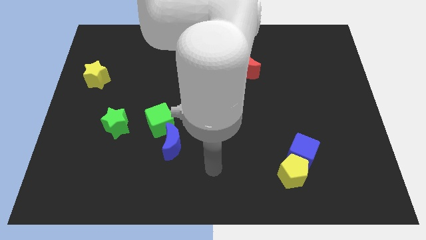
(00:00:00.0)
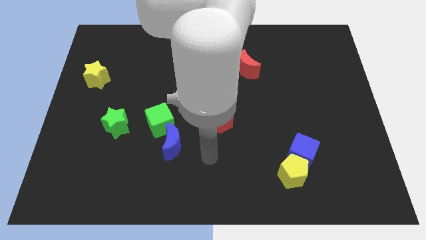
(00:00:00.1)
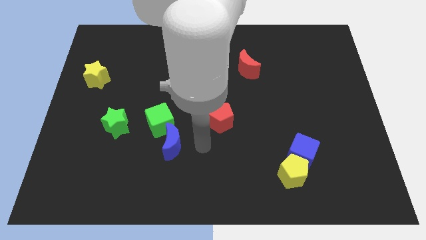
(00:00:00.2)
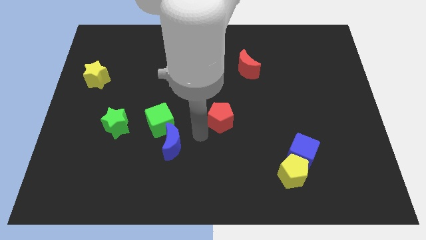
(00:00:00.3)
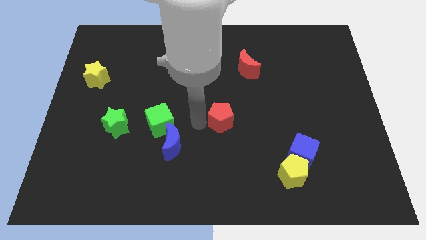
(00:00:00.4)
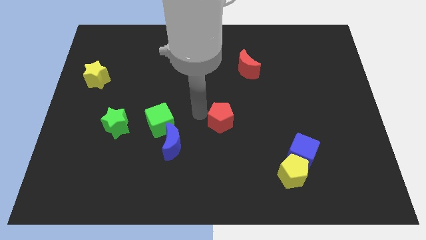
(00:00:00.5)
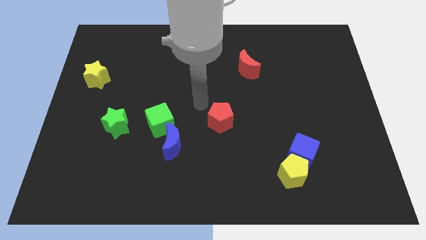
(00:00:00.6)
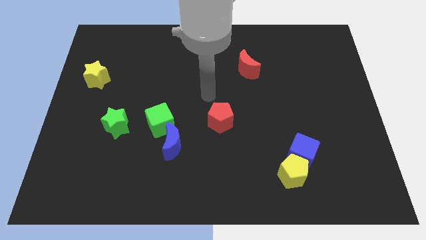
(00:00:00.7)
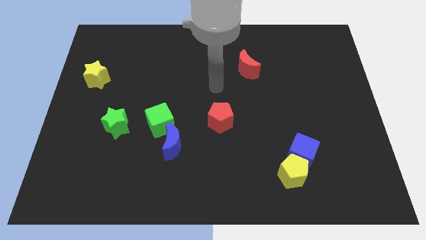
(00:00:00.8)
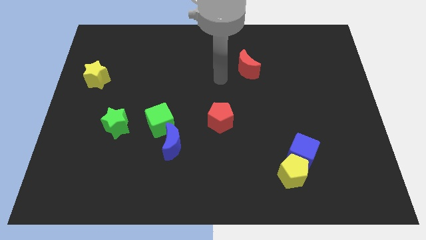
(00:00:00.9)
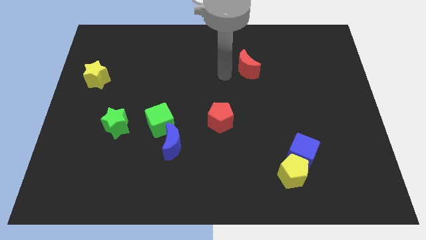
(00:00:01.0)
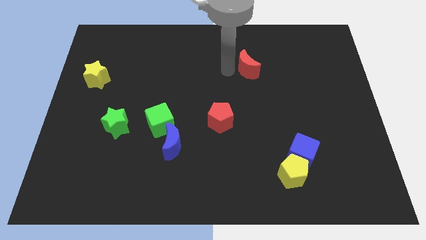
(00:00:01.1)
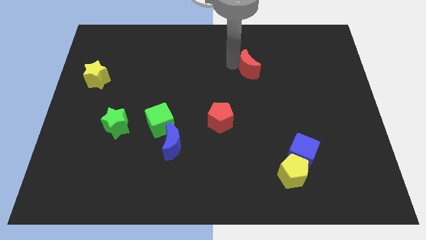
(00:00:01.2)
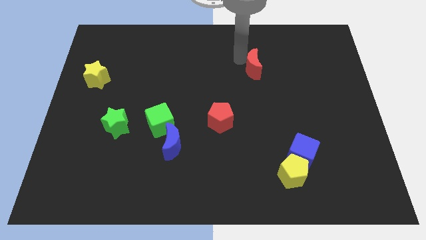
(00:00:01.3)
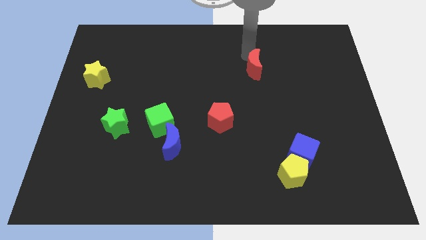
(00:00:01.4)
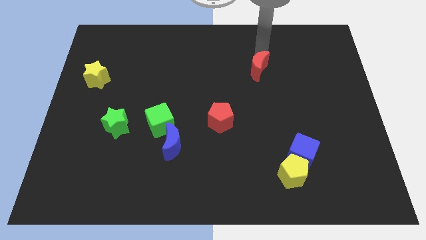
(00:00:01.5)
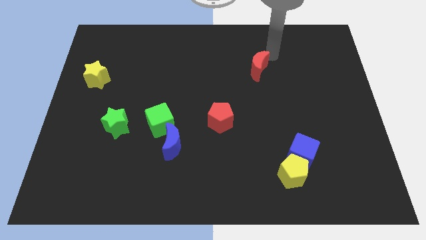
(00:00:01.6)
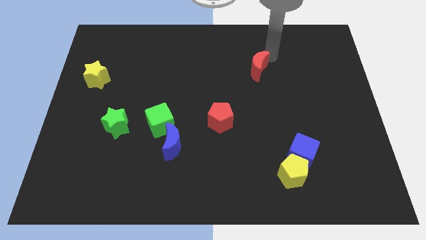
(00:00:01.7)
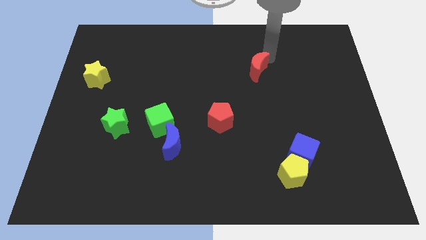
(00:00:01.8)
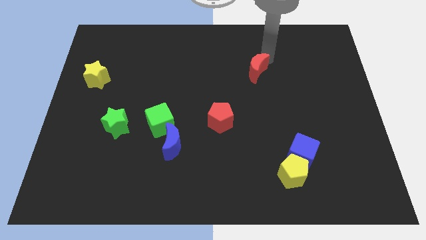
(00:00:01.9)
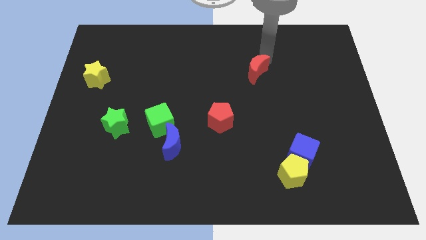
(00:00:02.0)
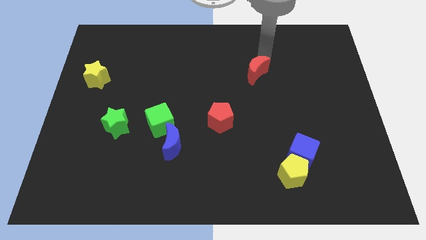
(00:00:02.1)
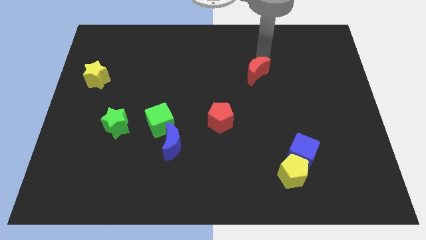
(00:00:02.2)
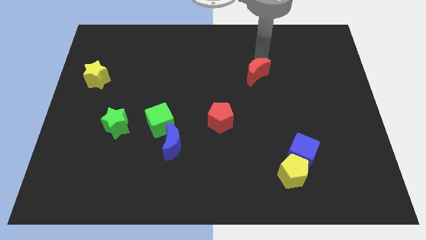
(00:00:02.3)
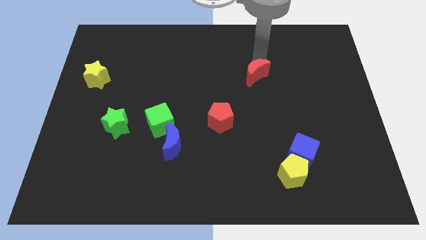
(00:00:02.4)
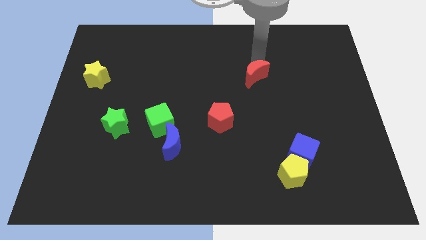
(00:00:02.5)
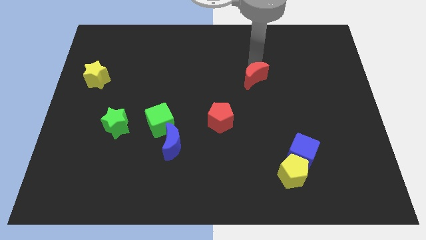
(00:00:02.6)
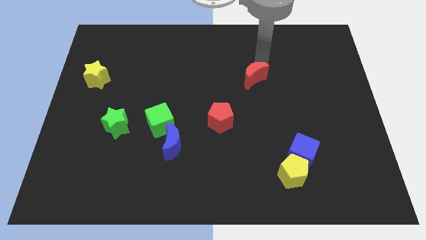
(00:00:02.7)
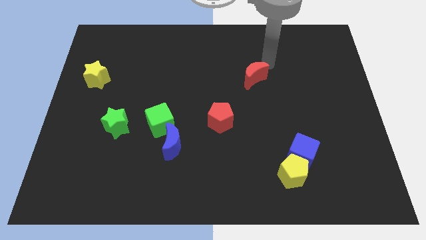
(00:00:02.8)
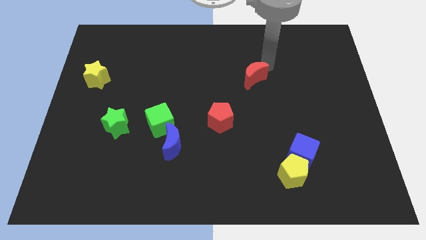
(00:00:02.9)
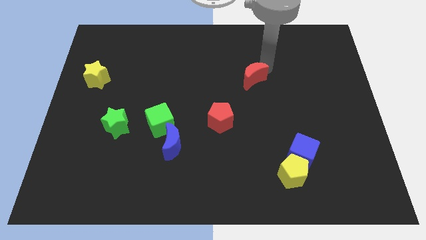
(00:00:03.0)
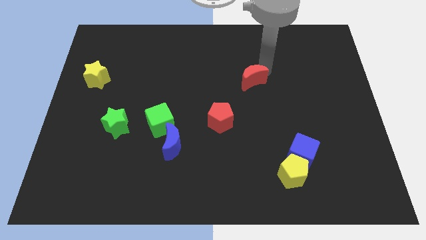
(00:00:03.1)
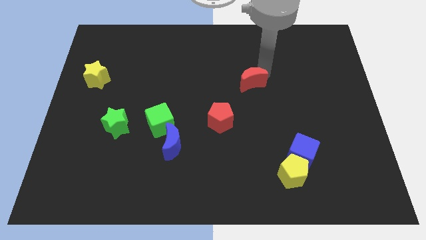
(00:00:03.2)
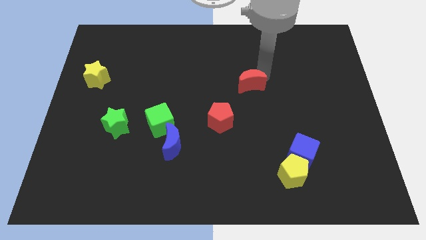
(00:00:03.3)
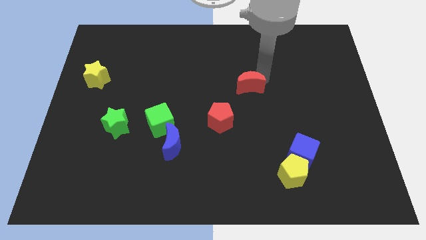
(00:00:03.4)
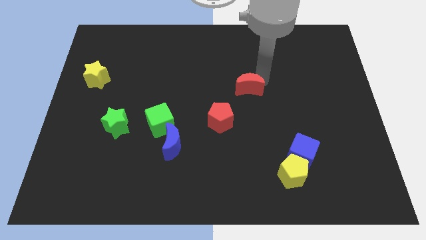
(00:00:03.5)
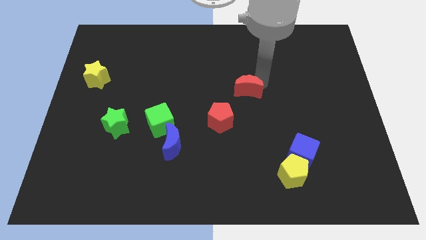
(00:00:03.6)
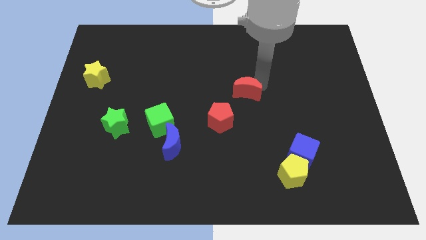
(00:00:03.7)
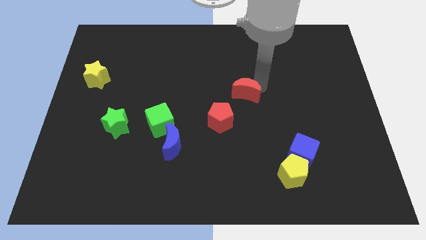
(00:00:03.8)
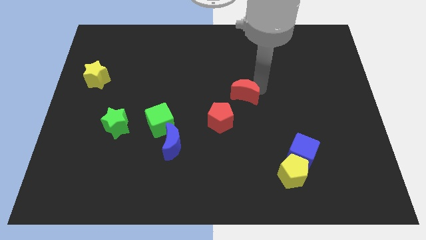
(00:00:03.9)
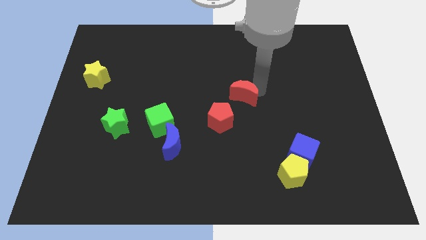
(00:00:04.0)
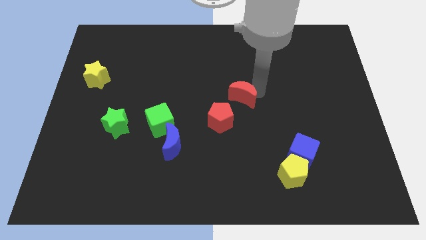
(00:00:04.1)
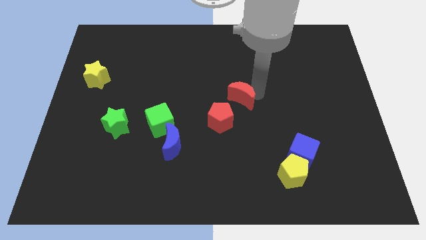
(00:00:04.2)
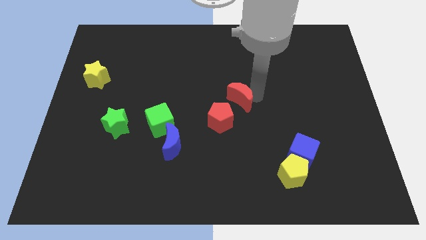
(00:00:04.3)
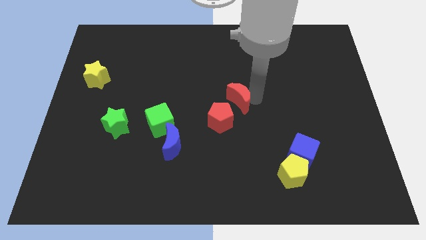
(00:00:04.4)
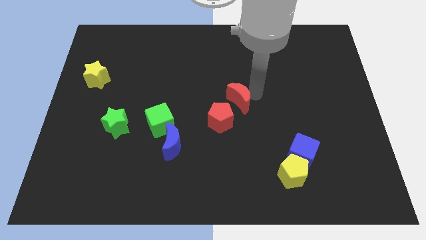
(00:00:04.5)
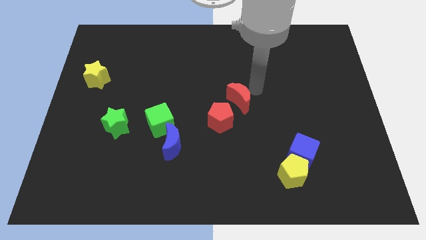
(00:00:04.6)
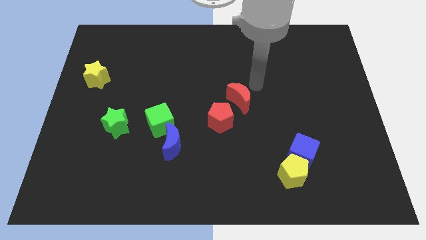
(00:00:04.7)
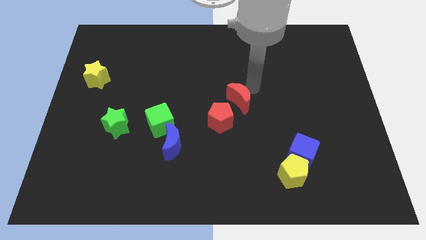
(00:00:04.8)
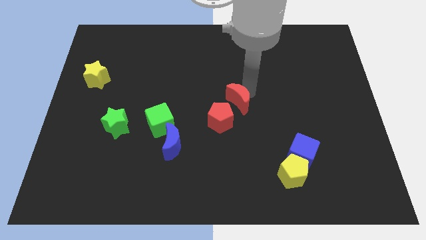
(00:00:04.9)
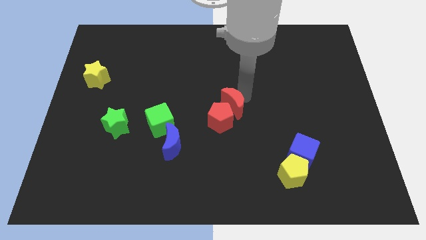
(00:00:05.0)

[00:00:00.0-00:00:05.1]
slide the red moon to the red pentagon

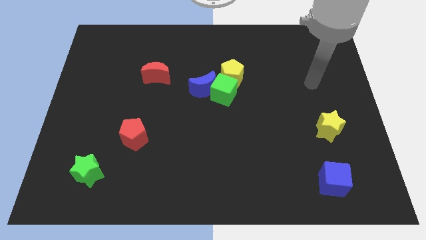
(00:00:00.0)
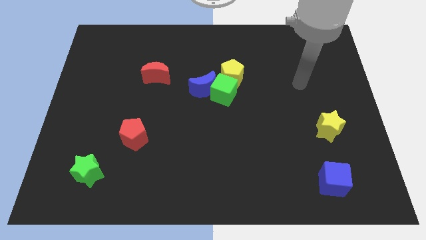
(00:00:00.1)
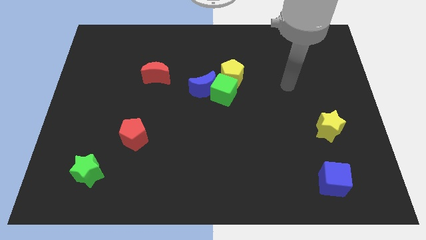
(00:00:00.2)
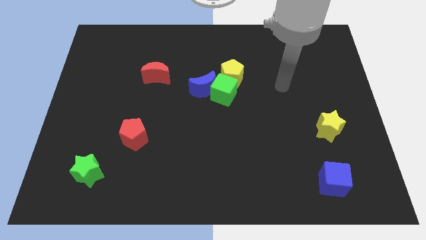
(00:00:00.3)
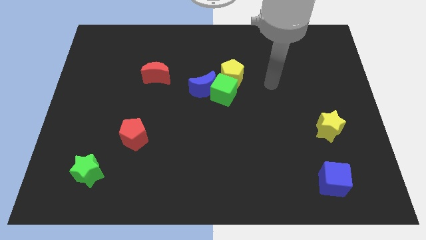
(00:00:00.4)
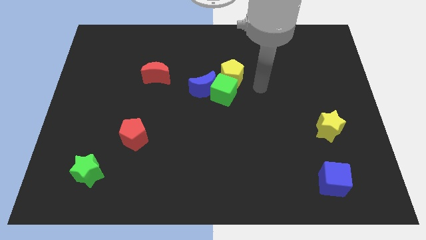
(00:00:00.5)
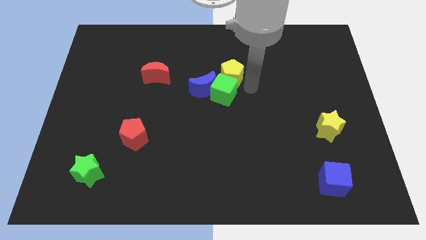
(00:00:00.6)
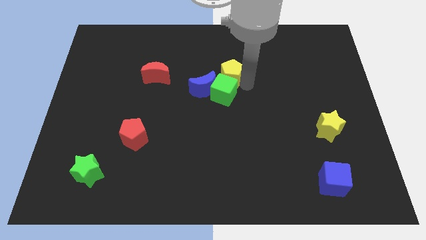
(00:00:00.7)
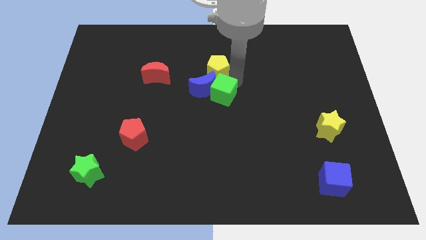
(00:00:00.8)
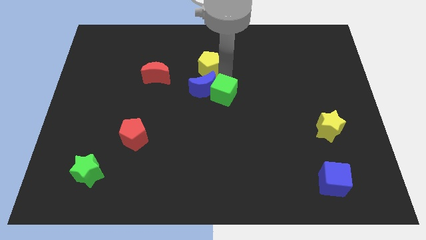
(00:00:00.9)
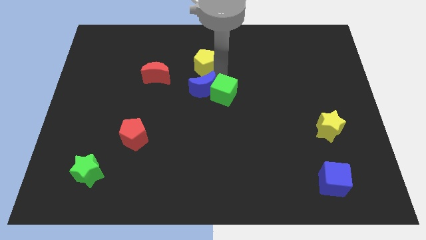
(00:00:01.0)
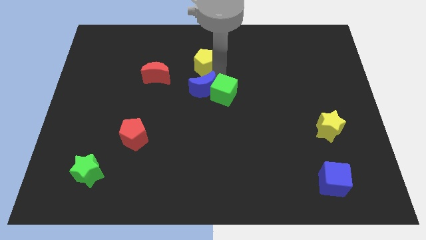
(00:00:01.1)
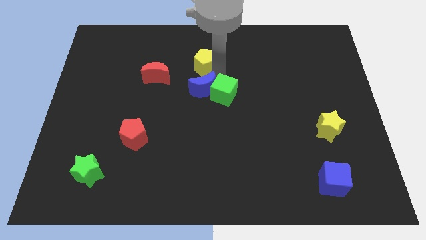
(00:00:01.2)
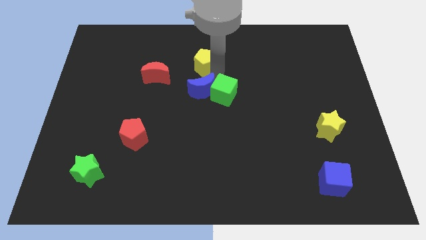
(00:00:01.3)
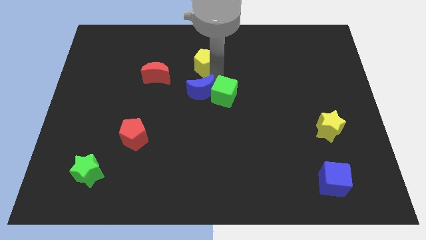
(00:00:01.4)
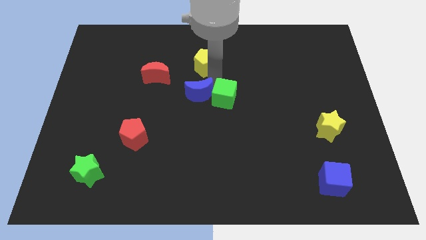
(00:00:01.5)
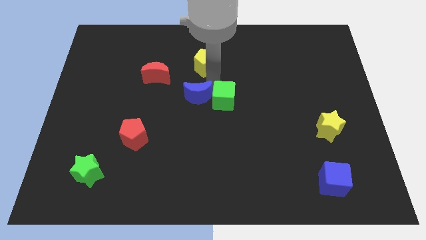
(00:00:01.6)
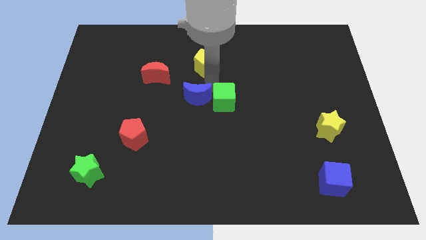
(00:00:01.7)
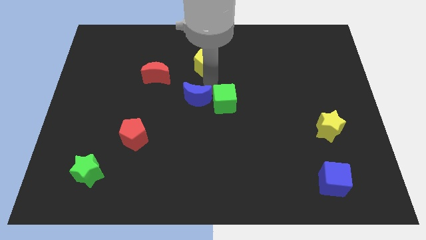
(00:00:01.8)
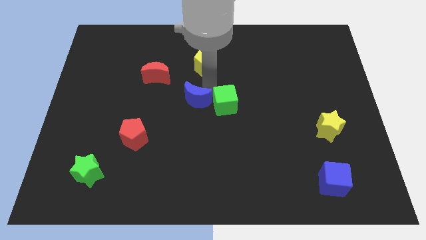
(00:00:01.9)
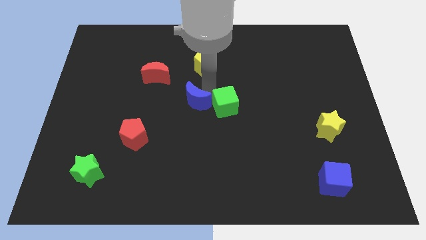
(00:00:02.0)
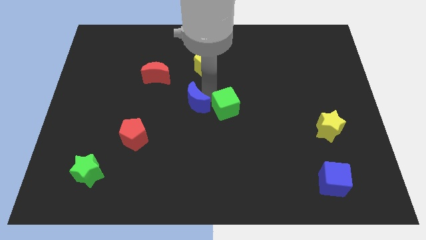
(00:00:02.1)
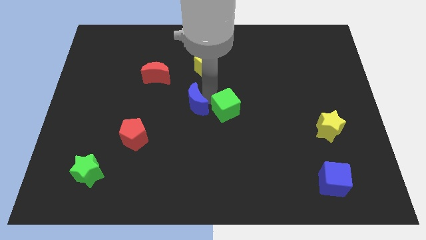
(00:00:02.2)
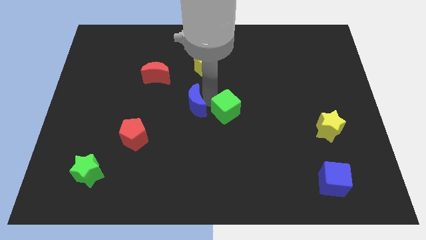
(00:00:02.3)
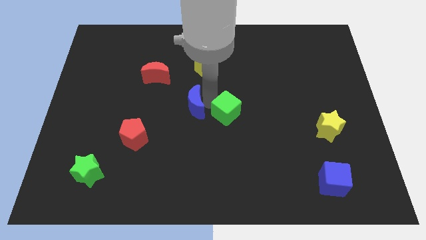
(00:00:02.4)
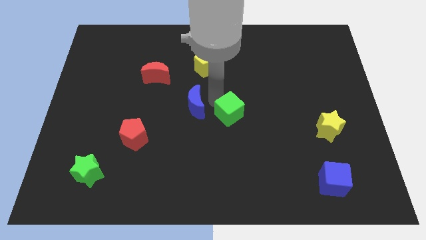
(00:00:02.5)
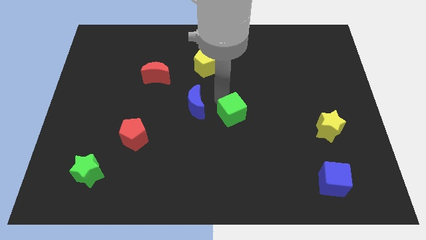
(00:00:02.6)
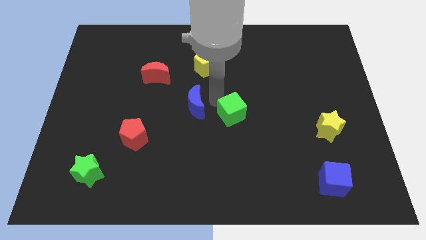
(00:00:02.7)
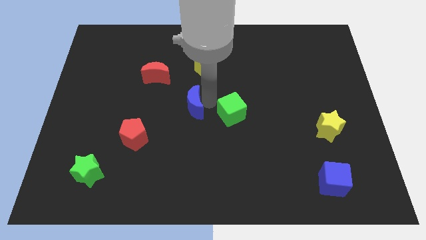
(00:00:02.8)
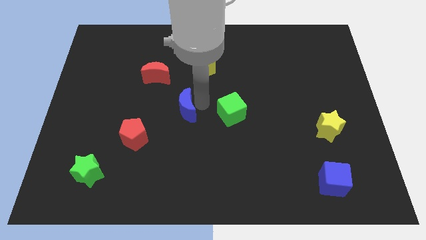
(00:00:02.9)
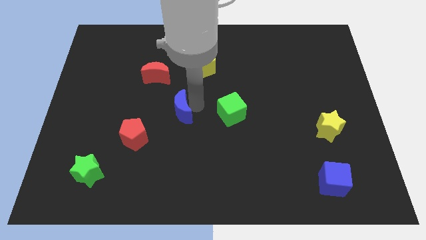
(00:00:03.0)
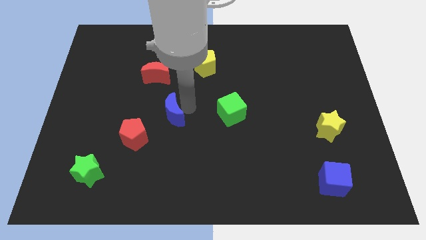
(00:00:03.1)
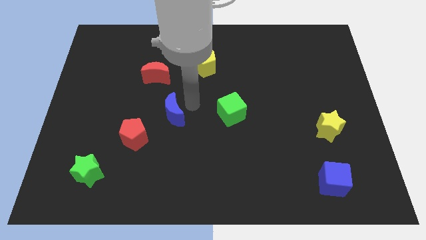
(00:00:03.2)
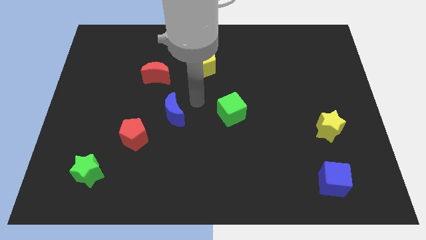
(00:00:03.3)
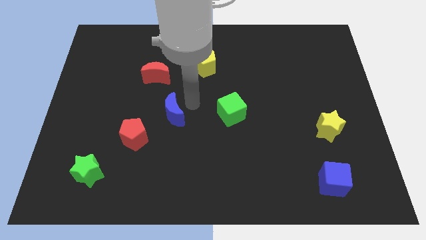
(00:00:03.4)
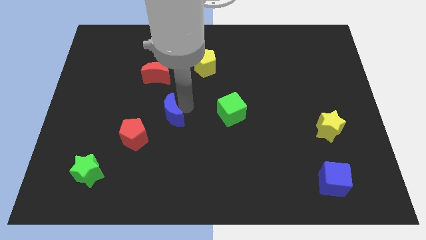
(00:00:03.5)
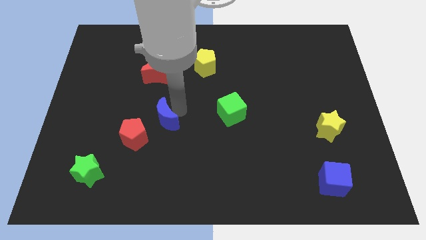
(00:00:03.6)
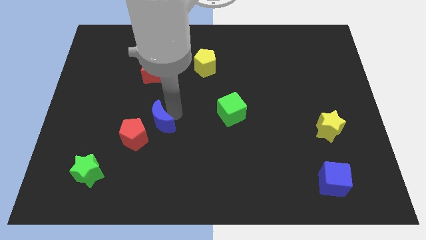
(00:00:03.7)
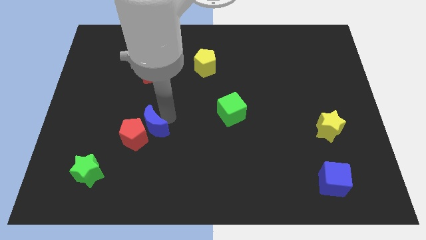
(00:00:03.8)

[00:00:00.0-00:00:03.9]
slide the blue moon towards the red pentagon
